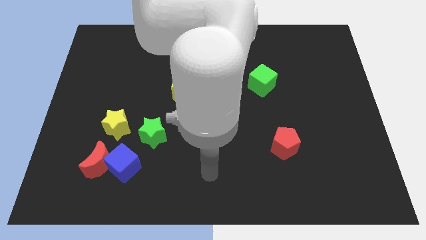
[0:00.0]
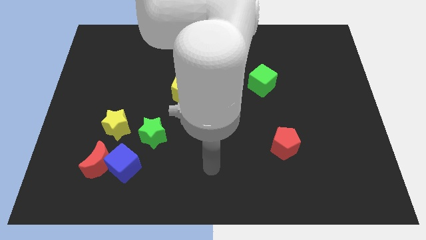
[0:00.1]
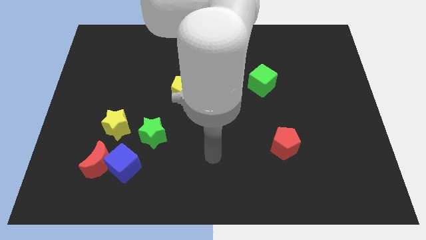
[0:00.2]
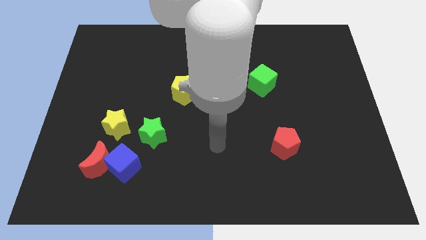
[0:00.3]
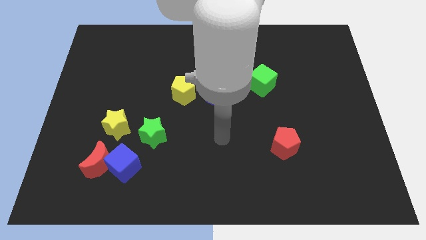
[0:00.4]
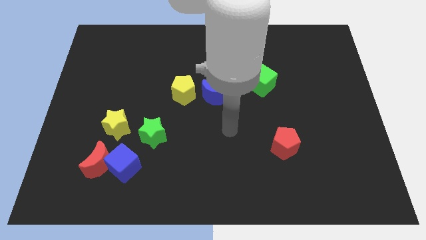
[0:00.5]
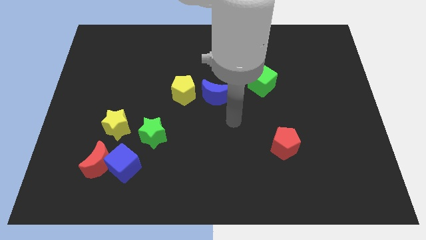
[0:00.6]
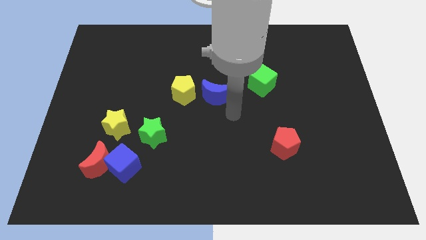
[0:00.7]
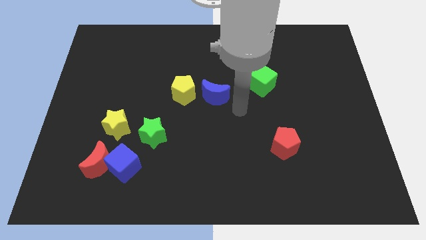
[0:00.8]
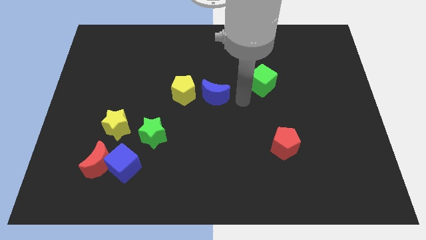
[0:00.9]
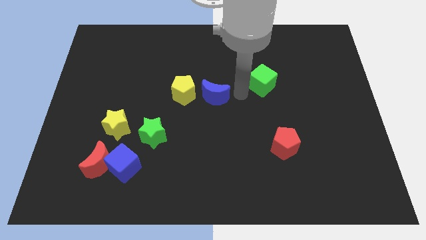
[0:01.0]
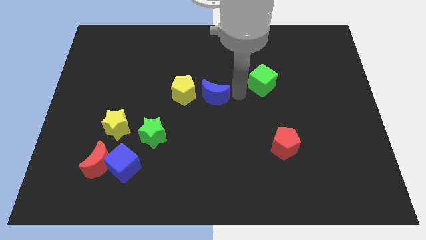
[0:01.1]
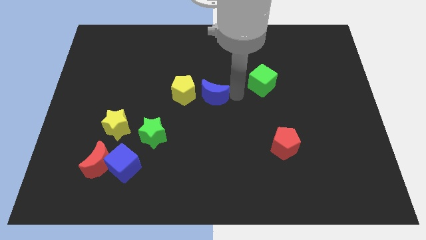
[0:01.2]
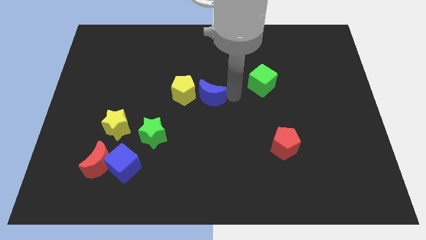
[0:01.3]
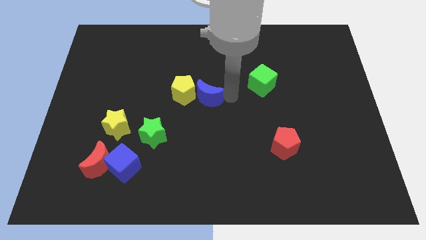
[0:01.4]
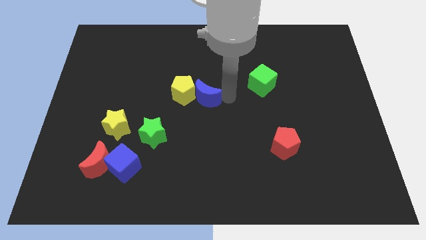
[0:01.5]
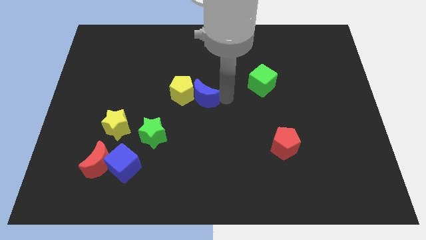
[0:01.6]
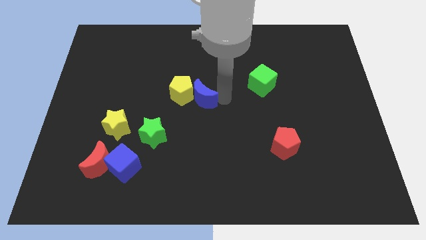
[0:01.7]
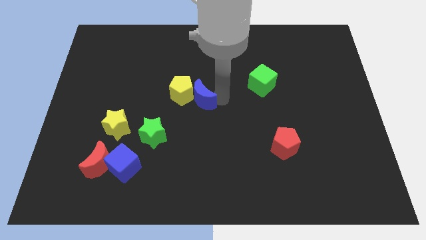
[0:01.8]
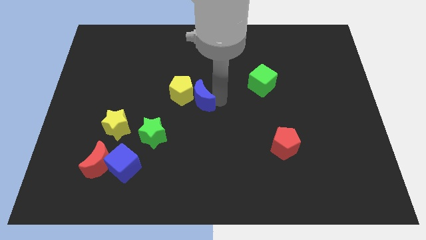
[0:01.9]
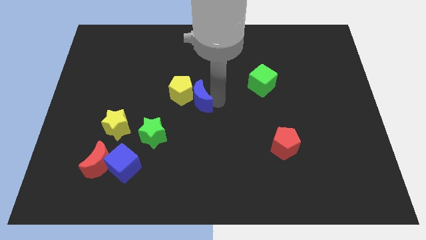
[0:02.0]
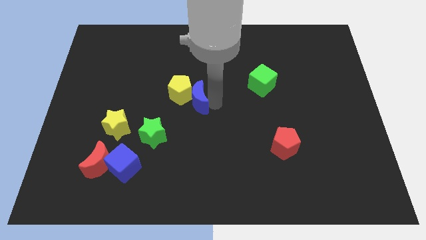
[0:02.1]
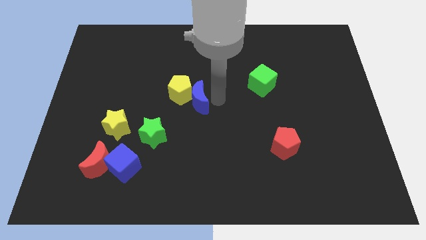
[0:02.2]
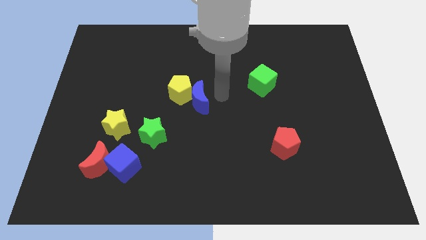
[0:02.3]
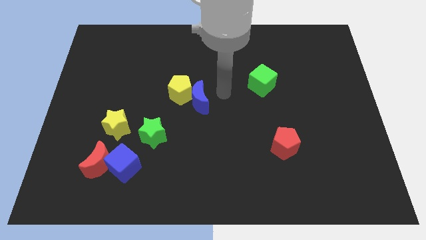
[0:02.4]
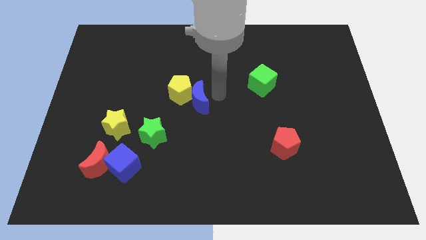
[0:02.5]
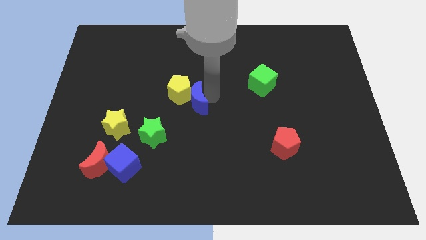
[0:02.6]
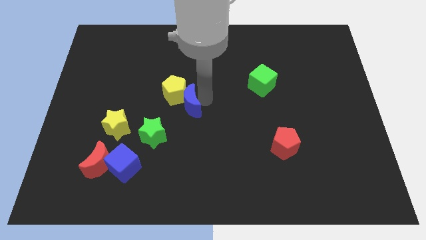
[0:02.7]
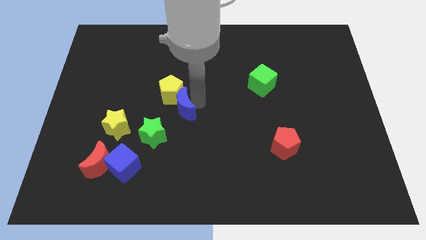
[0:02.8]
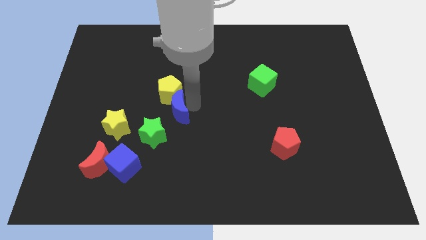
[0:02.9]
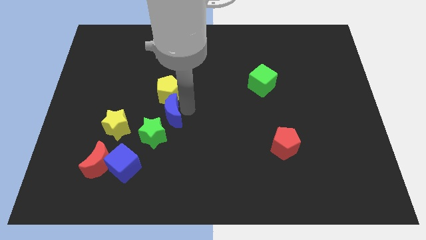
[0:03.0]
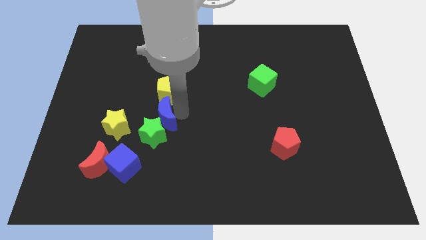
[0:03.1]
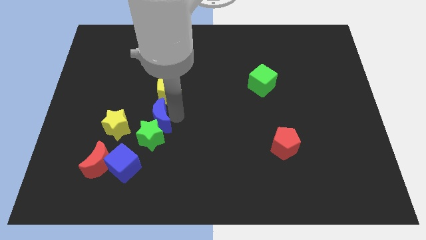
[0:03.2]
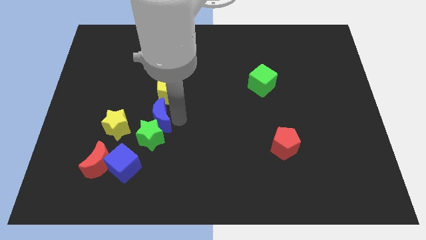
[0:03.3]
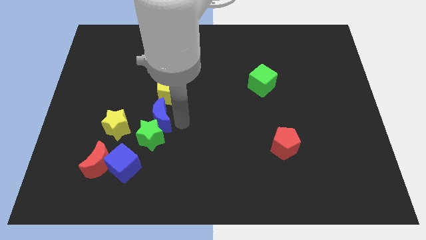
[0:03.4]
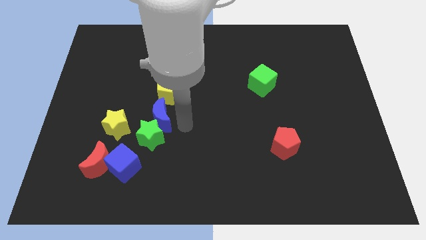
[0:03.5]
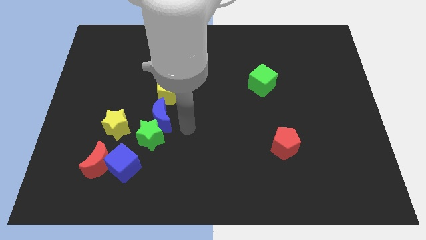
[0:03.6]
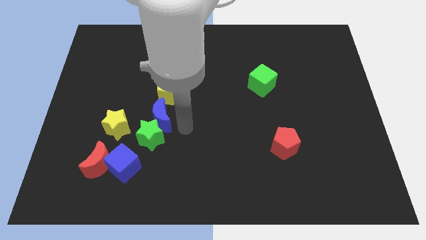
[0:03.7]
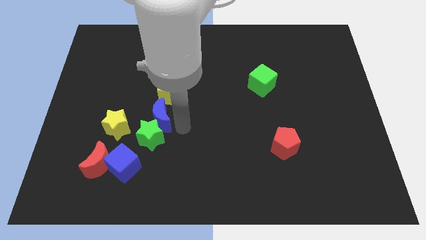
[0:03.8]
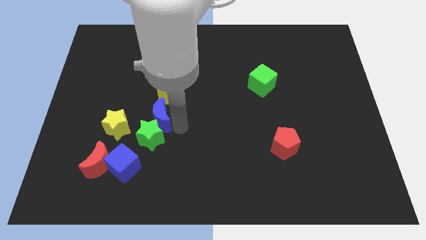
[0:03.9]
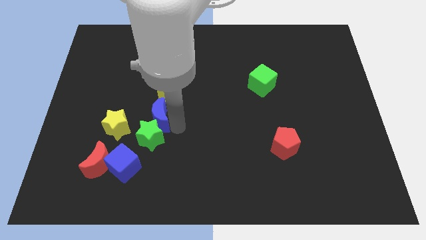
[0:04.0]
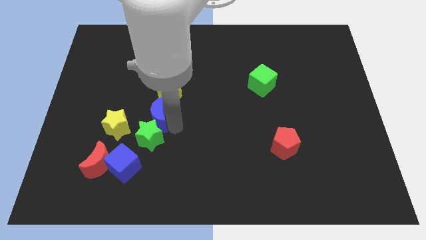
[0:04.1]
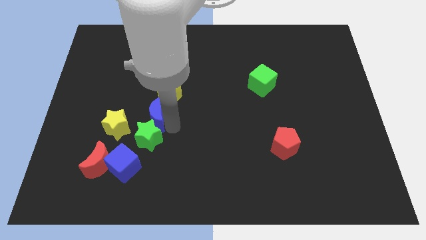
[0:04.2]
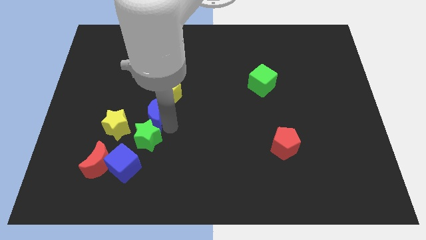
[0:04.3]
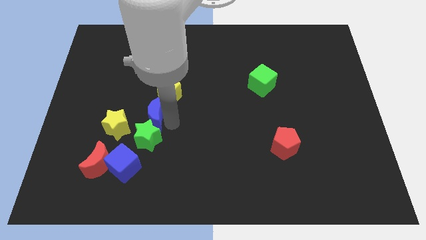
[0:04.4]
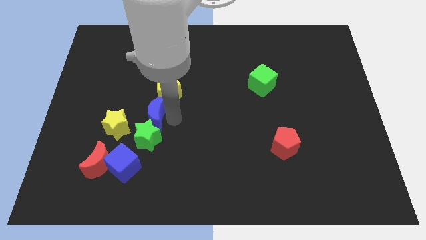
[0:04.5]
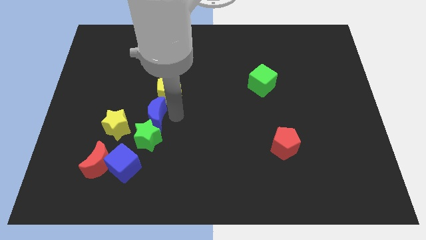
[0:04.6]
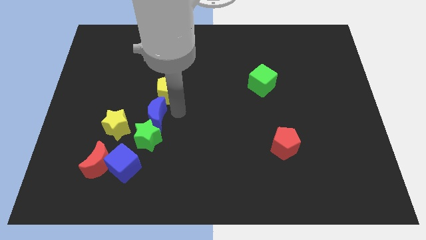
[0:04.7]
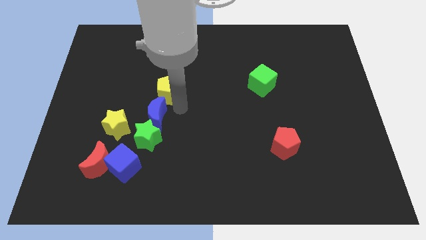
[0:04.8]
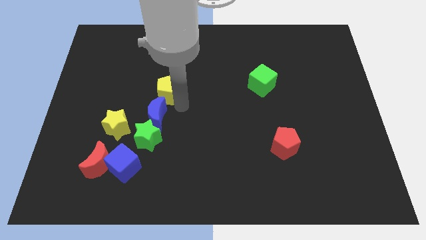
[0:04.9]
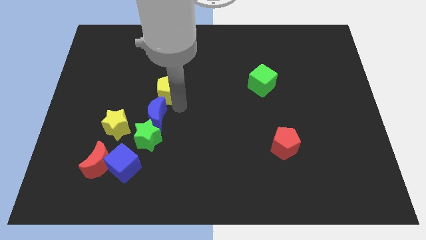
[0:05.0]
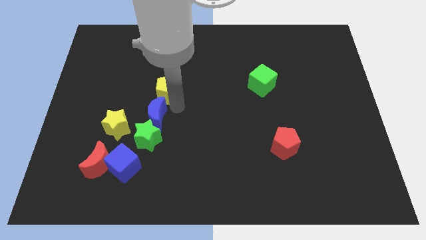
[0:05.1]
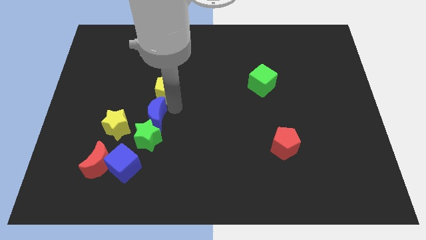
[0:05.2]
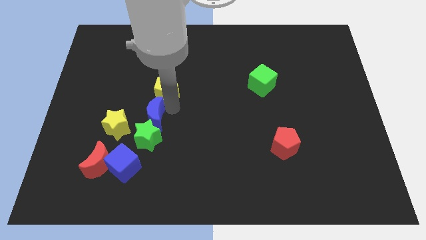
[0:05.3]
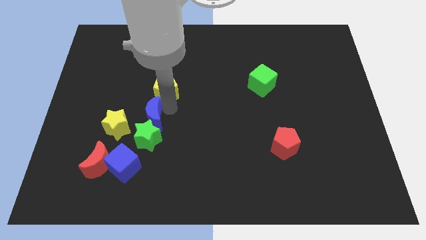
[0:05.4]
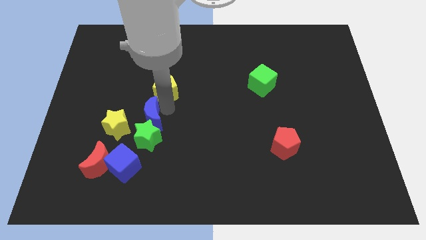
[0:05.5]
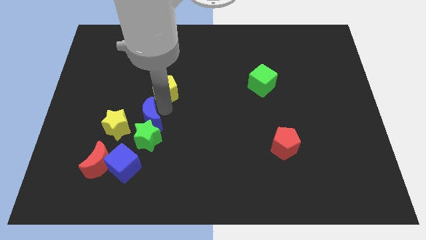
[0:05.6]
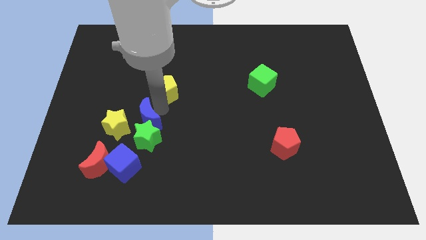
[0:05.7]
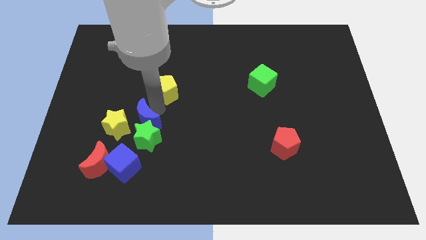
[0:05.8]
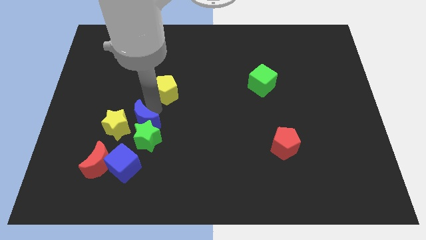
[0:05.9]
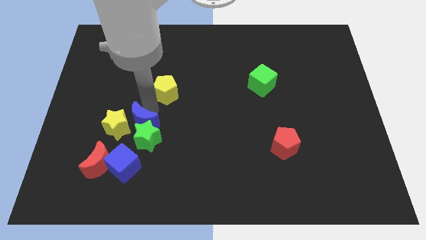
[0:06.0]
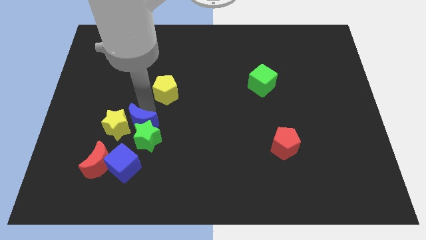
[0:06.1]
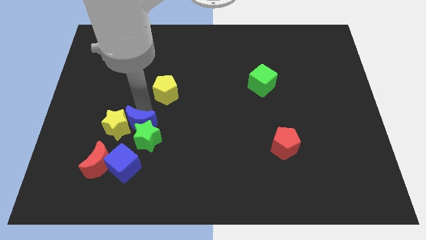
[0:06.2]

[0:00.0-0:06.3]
slide the blue moon to the top right of the red moon

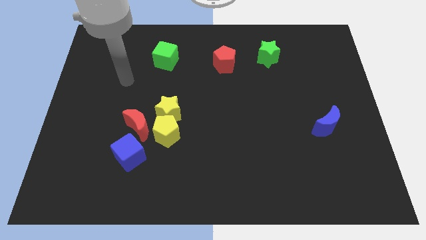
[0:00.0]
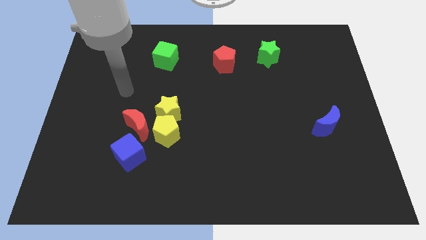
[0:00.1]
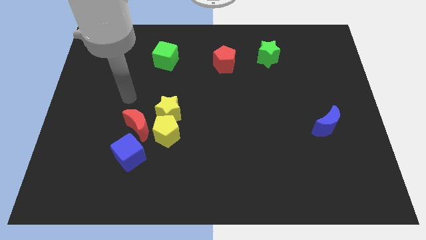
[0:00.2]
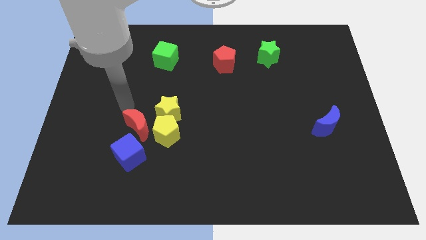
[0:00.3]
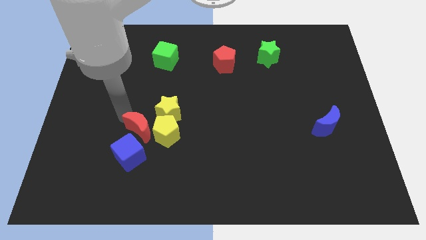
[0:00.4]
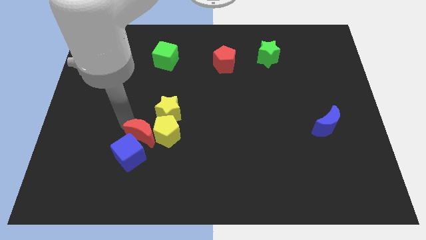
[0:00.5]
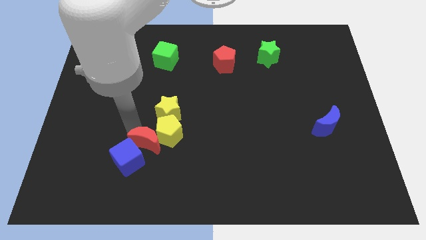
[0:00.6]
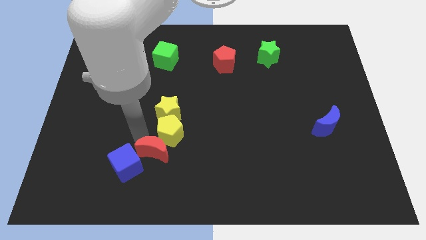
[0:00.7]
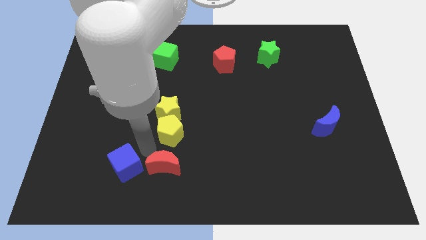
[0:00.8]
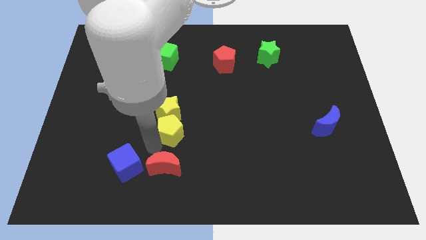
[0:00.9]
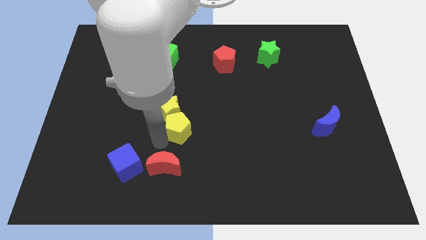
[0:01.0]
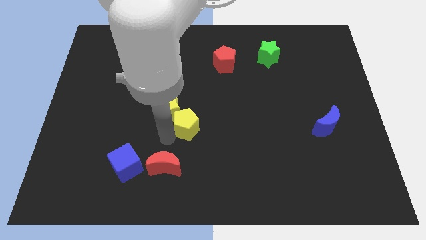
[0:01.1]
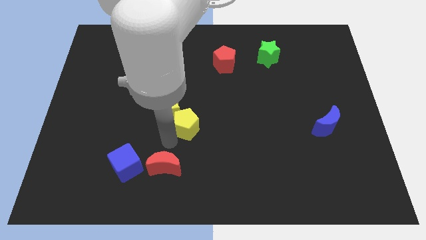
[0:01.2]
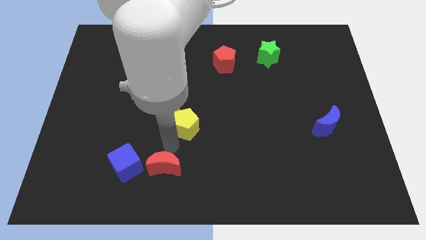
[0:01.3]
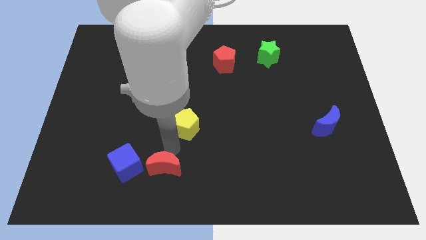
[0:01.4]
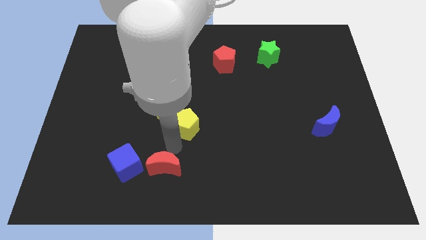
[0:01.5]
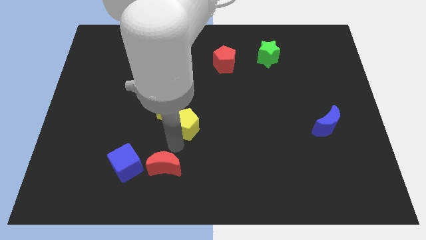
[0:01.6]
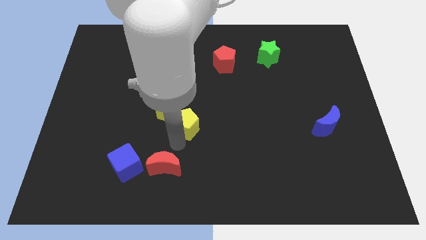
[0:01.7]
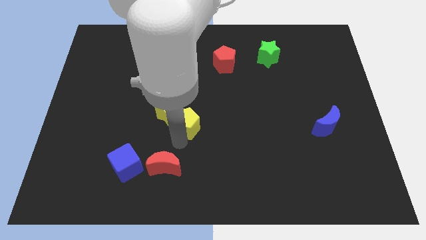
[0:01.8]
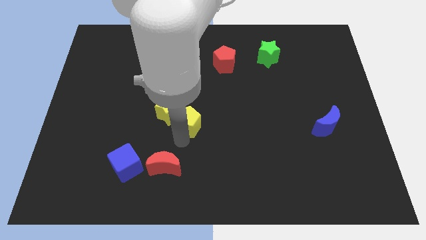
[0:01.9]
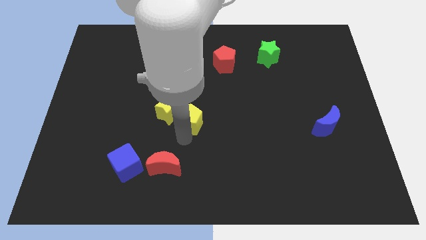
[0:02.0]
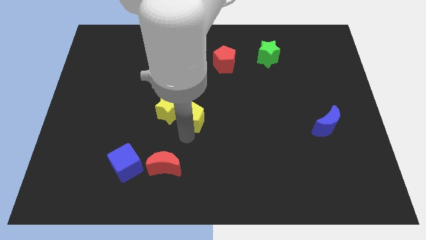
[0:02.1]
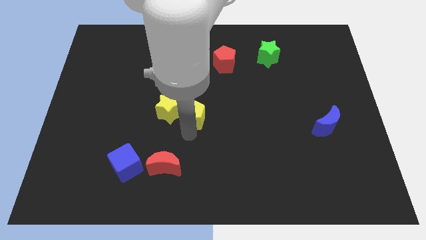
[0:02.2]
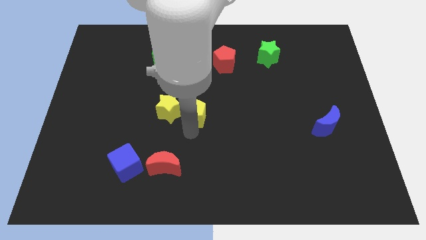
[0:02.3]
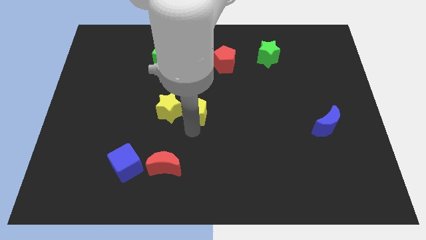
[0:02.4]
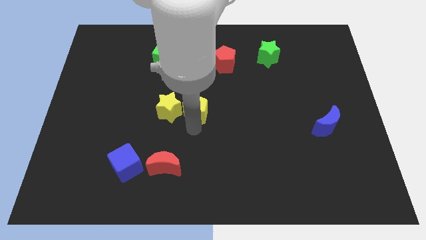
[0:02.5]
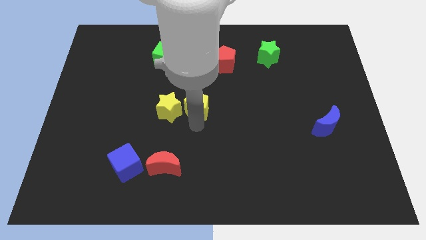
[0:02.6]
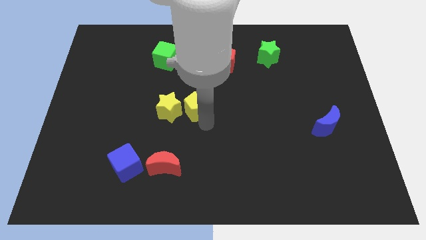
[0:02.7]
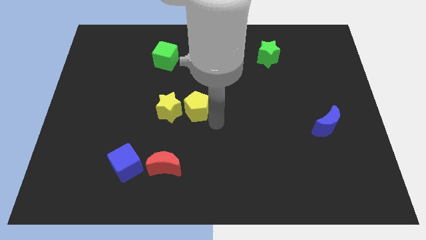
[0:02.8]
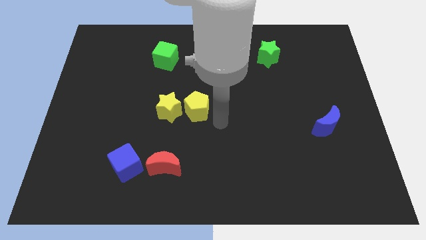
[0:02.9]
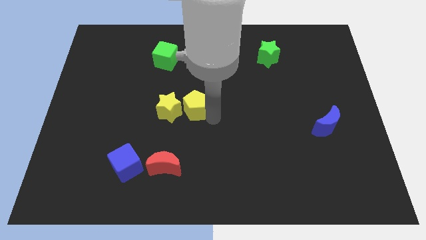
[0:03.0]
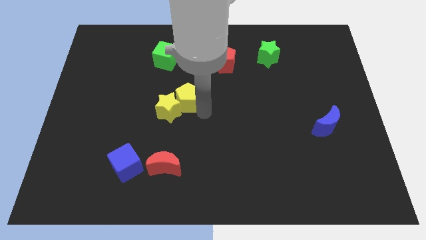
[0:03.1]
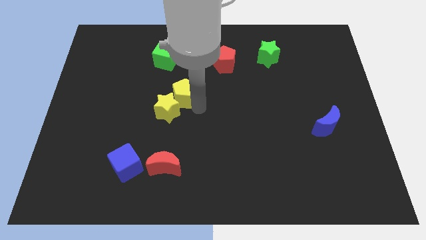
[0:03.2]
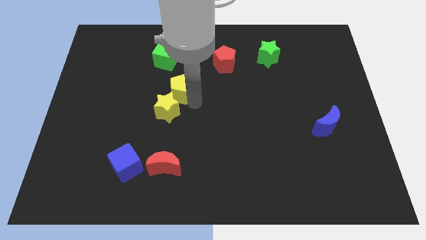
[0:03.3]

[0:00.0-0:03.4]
put the yellow pentagon to the bottom of the green cube
